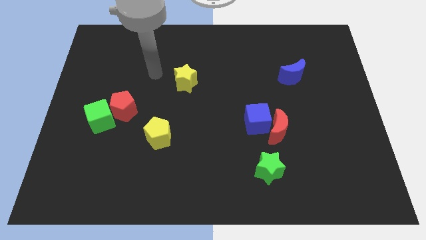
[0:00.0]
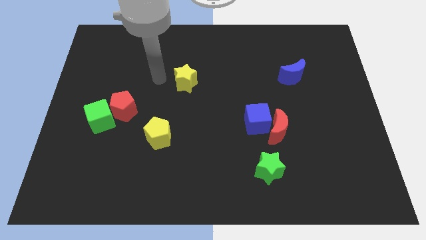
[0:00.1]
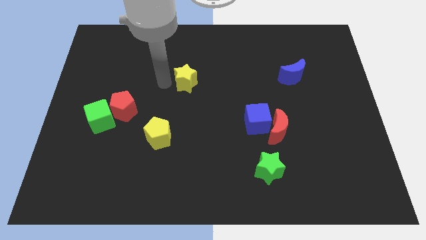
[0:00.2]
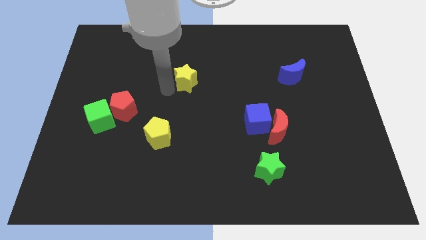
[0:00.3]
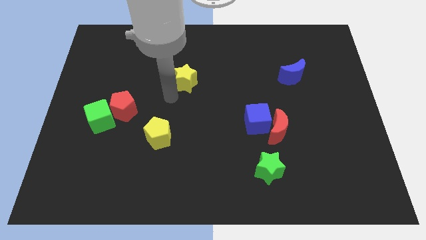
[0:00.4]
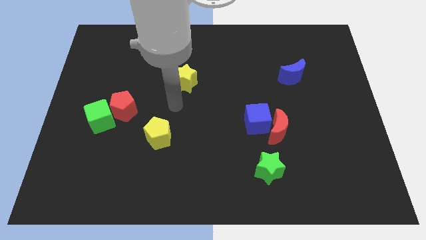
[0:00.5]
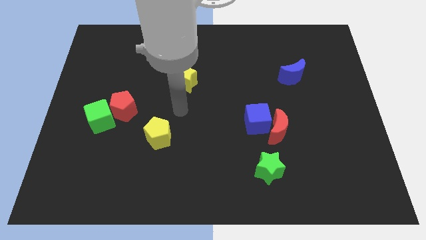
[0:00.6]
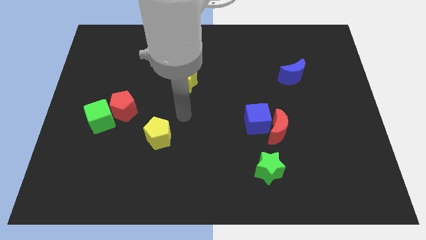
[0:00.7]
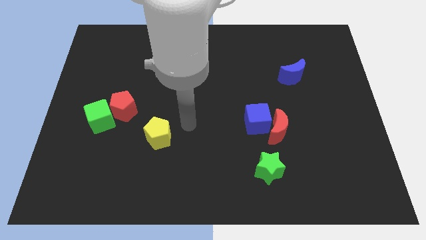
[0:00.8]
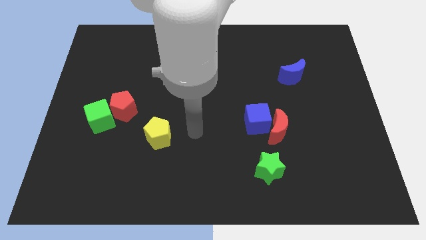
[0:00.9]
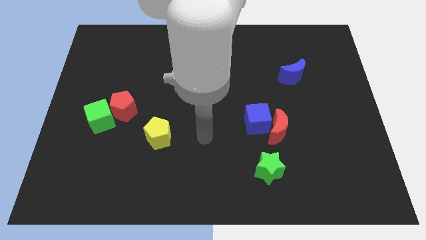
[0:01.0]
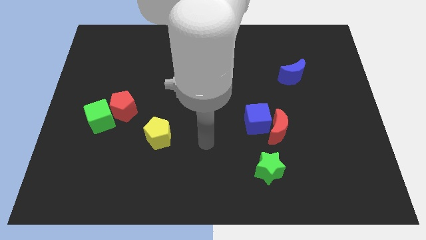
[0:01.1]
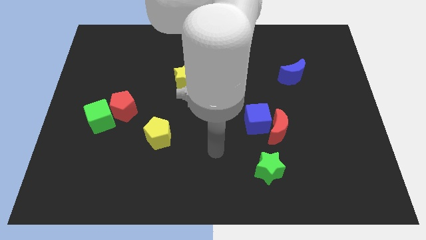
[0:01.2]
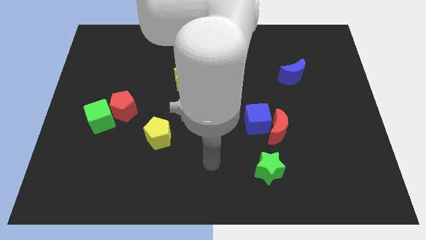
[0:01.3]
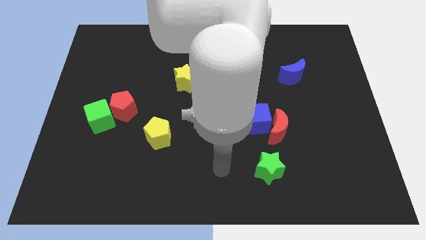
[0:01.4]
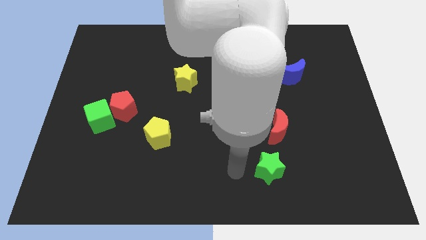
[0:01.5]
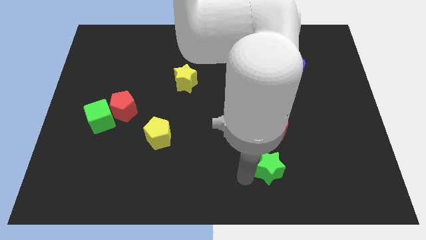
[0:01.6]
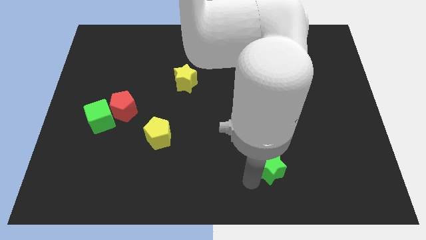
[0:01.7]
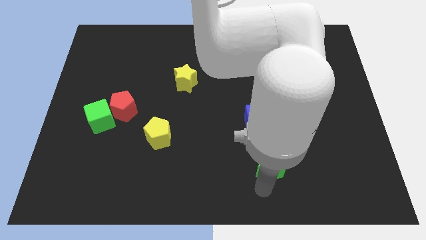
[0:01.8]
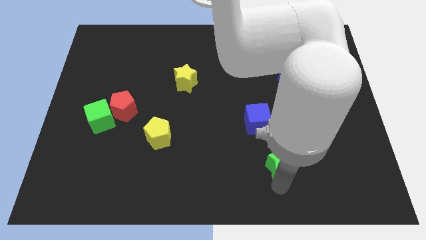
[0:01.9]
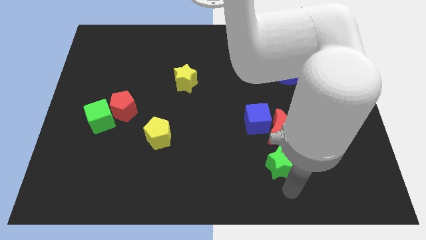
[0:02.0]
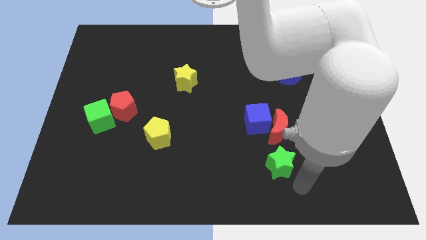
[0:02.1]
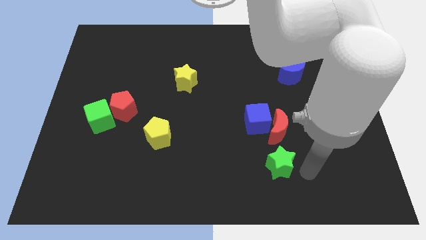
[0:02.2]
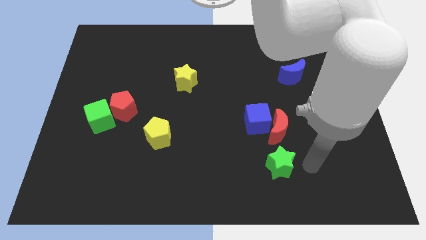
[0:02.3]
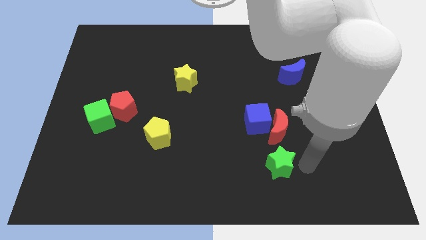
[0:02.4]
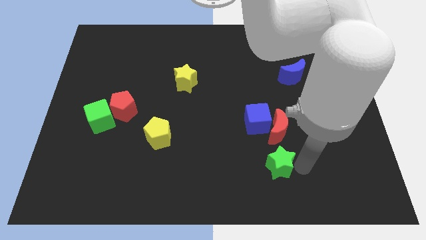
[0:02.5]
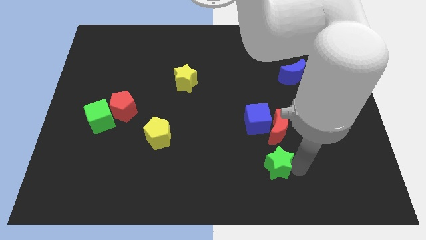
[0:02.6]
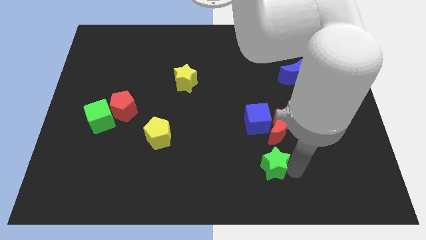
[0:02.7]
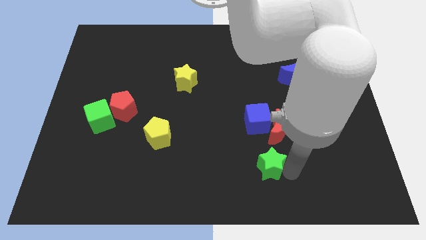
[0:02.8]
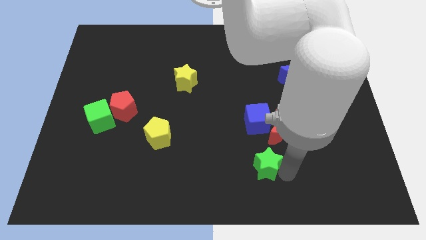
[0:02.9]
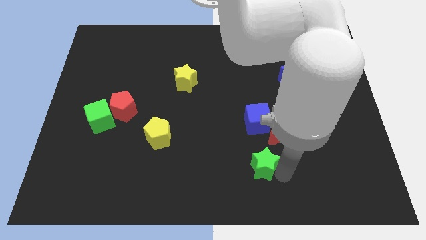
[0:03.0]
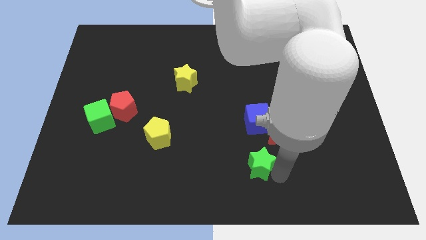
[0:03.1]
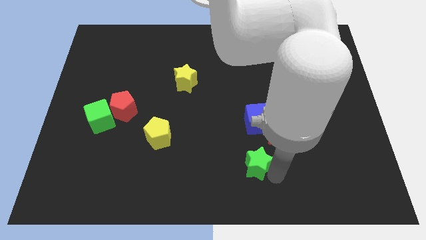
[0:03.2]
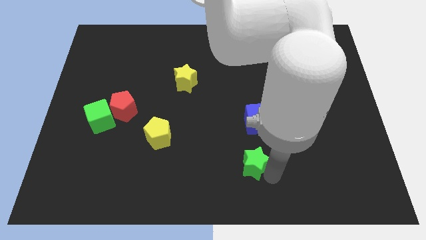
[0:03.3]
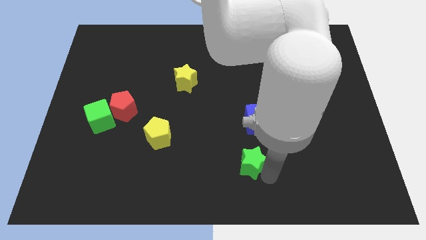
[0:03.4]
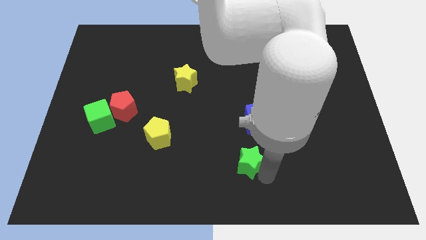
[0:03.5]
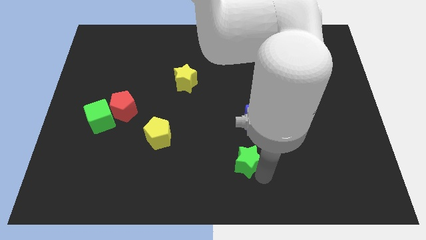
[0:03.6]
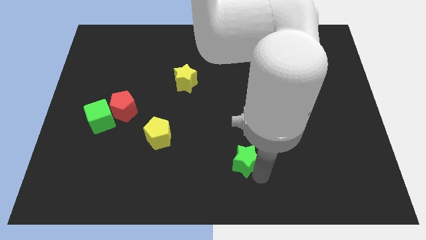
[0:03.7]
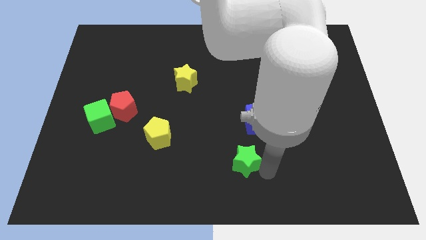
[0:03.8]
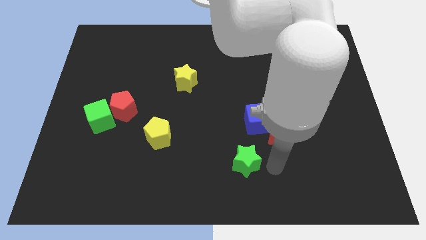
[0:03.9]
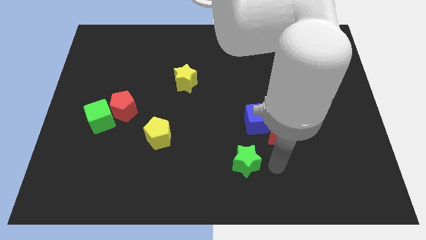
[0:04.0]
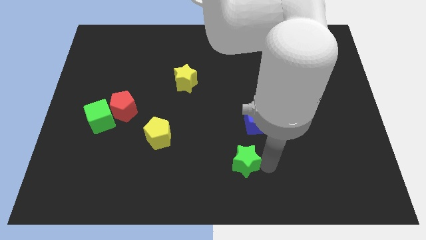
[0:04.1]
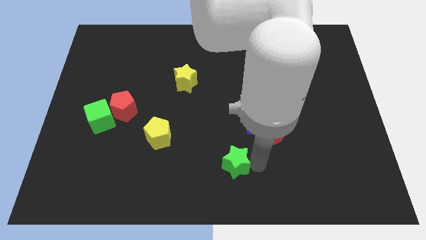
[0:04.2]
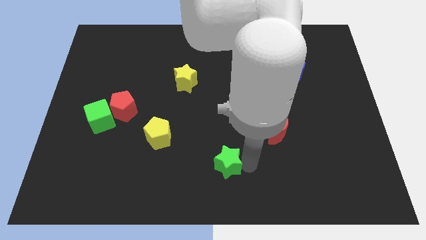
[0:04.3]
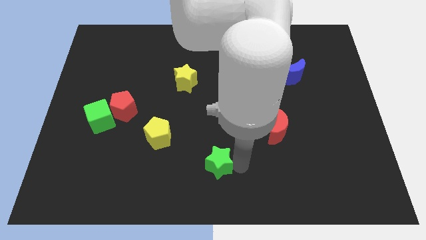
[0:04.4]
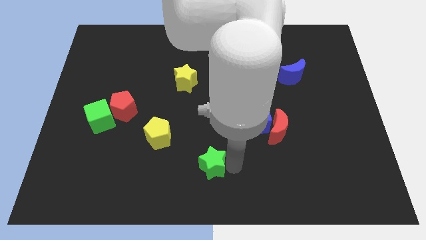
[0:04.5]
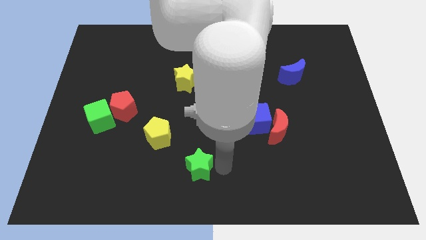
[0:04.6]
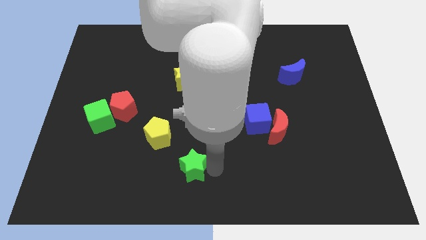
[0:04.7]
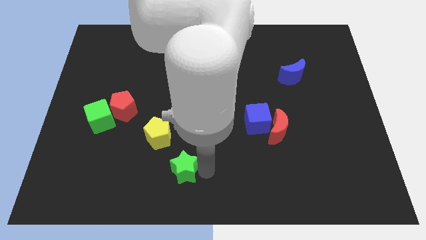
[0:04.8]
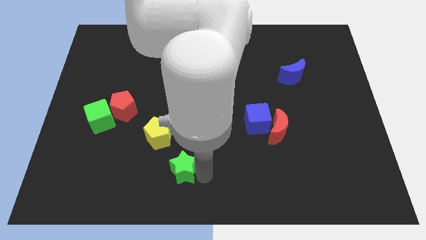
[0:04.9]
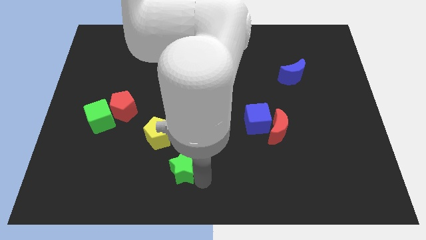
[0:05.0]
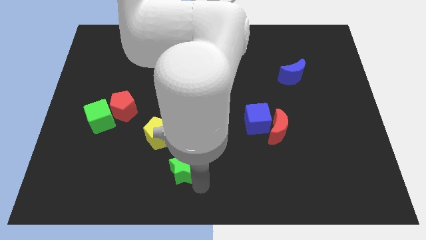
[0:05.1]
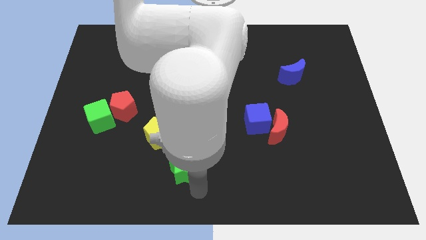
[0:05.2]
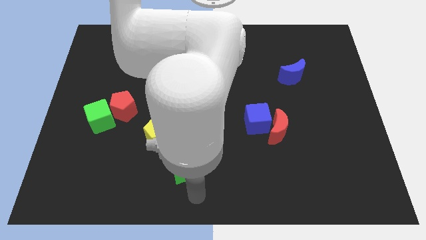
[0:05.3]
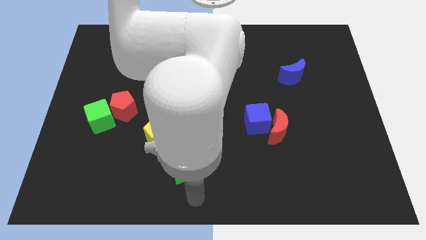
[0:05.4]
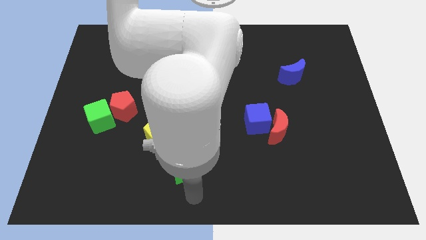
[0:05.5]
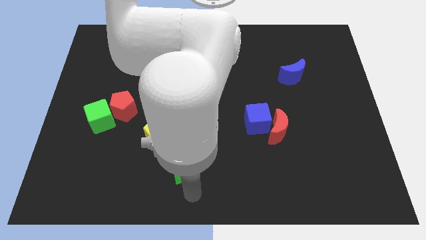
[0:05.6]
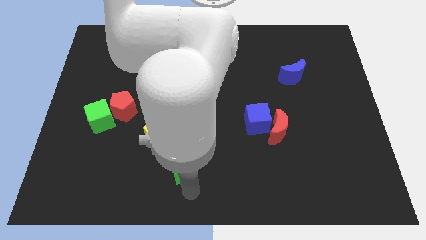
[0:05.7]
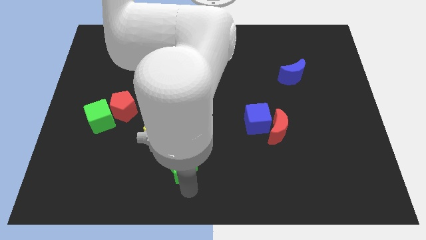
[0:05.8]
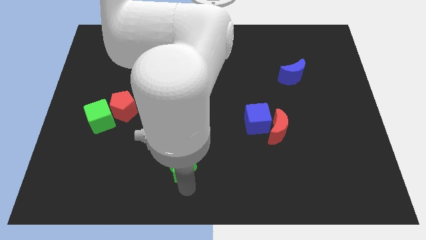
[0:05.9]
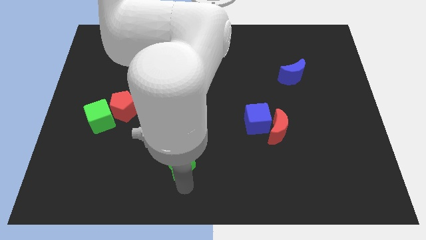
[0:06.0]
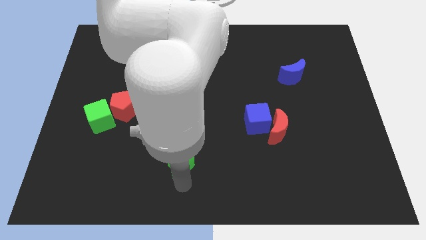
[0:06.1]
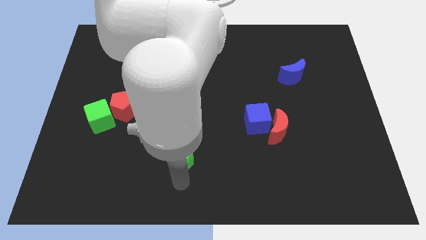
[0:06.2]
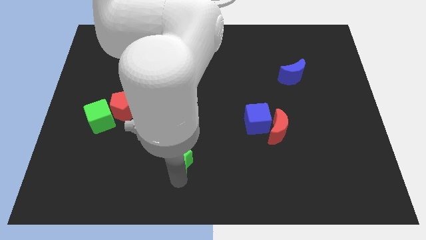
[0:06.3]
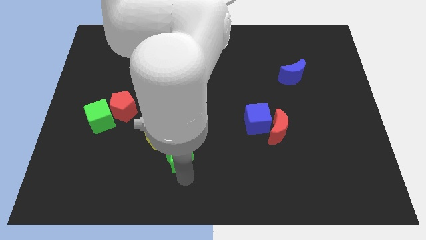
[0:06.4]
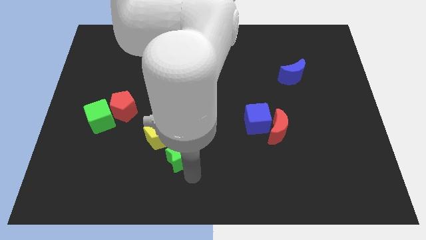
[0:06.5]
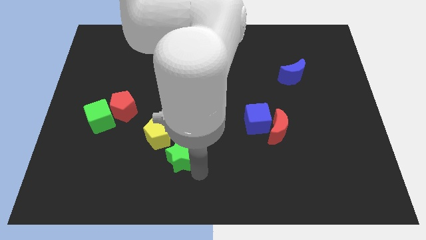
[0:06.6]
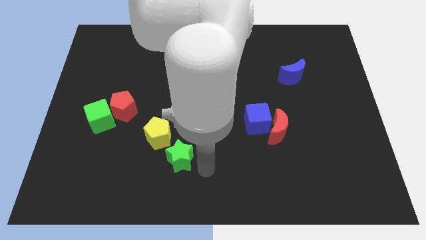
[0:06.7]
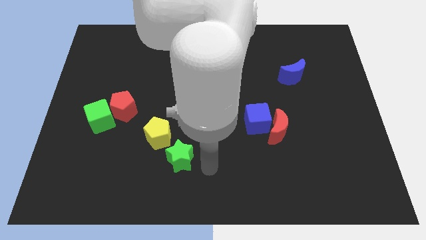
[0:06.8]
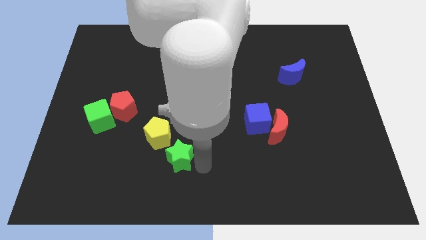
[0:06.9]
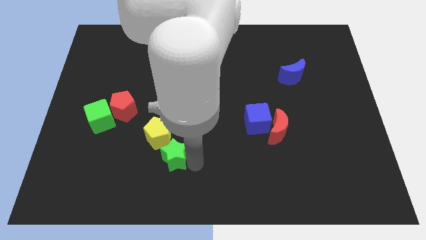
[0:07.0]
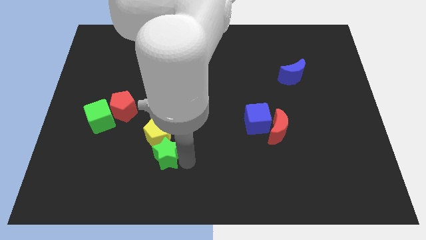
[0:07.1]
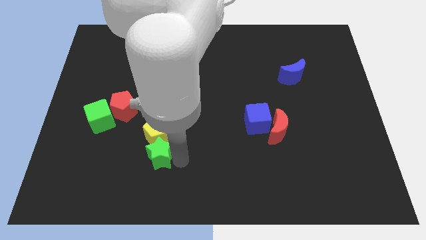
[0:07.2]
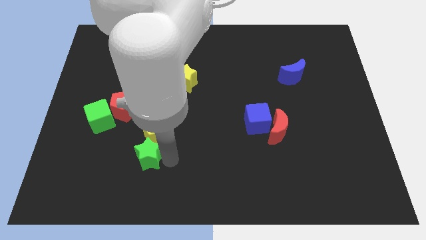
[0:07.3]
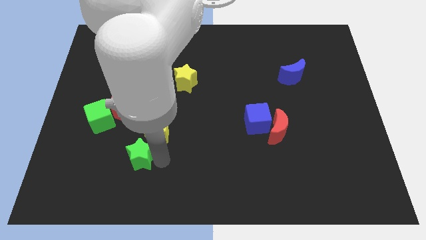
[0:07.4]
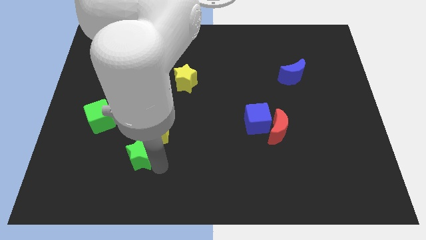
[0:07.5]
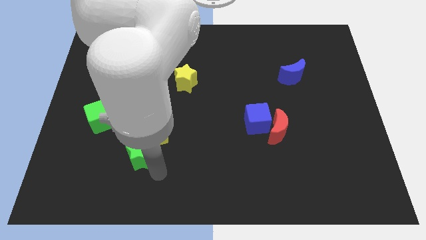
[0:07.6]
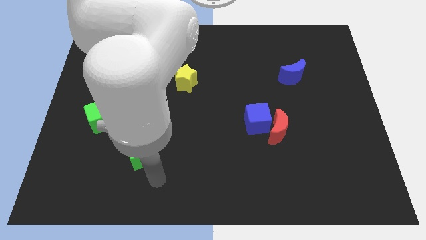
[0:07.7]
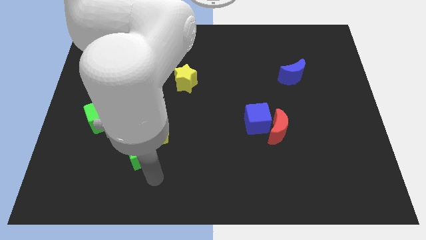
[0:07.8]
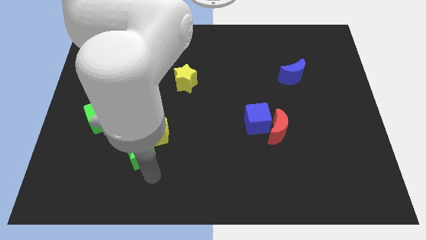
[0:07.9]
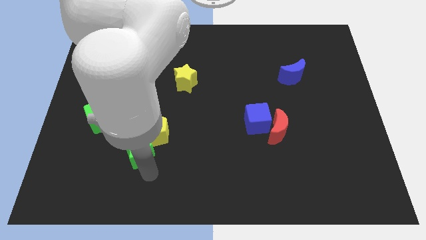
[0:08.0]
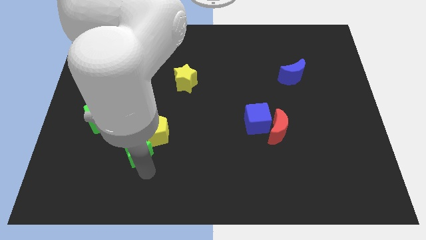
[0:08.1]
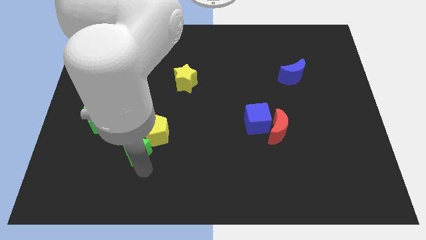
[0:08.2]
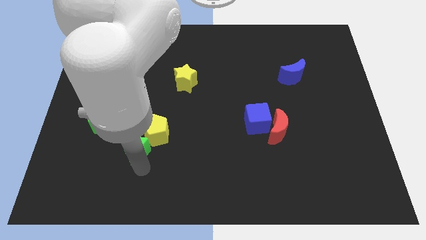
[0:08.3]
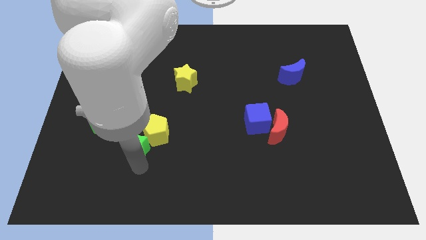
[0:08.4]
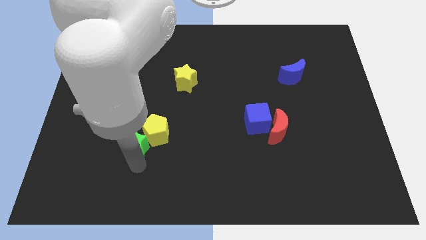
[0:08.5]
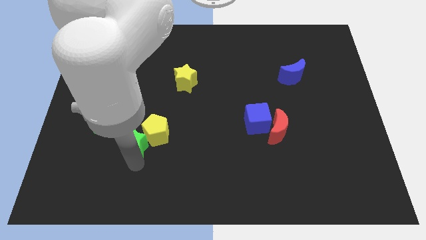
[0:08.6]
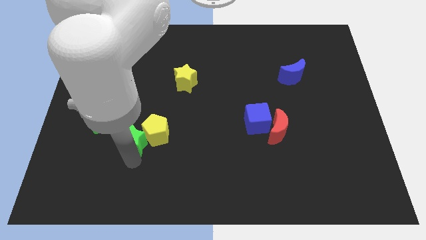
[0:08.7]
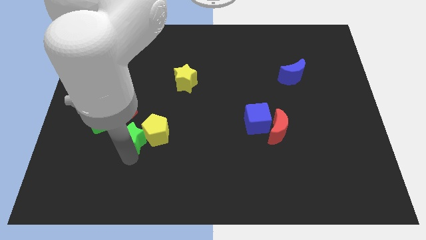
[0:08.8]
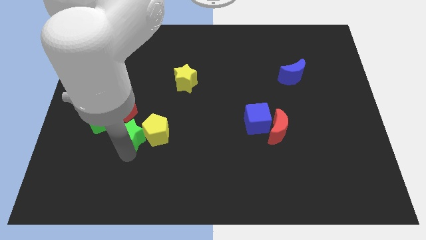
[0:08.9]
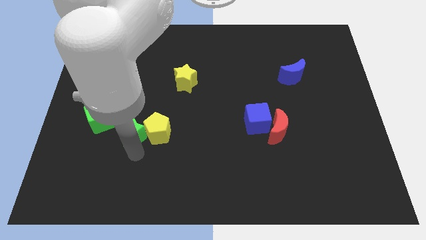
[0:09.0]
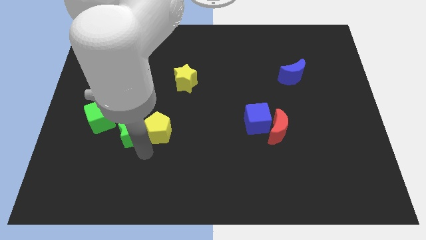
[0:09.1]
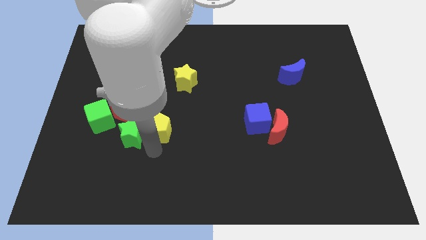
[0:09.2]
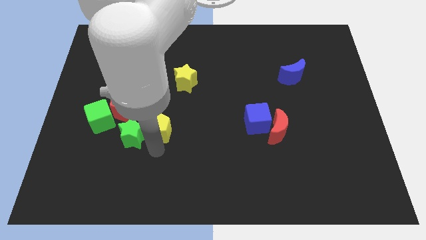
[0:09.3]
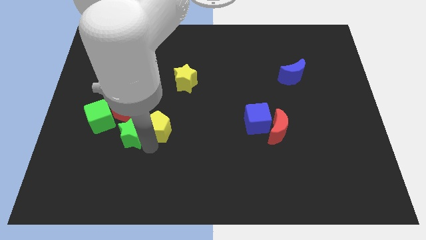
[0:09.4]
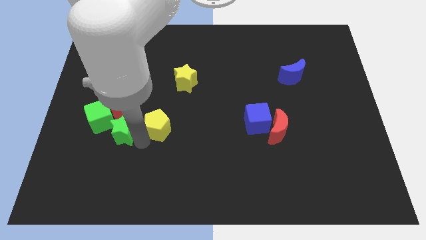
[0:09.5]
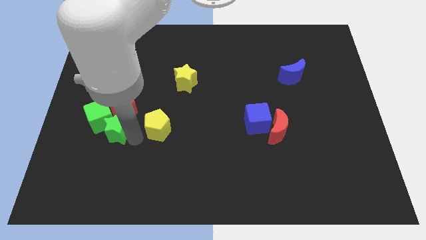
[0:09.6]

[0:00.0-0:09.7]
move the green star to the green cube
